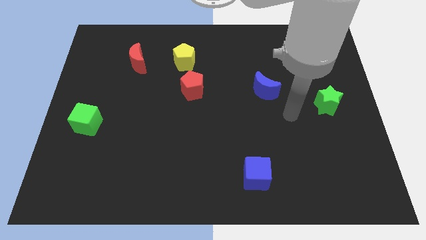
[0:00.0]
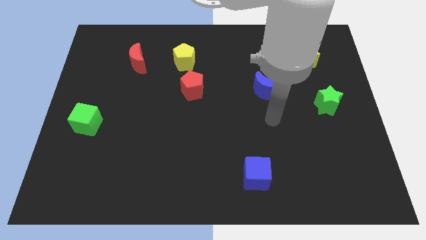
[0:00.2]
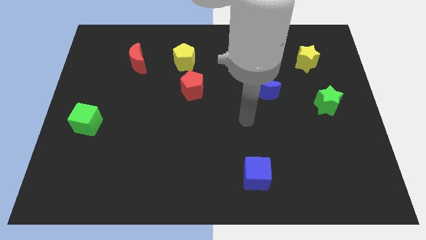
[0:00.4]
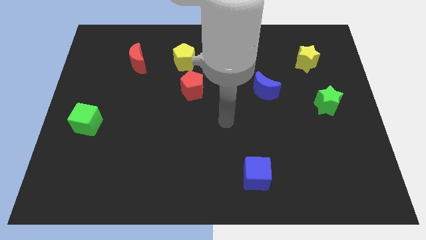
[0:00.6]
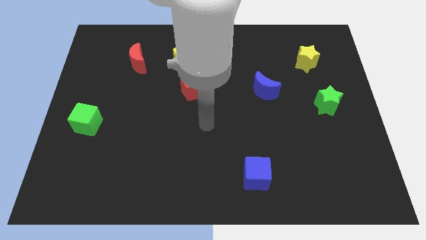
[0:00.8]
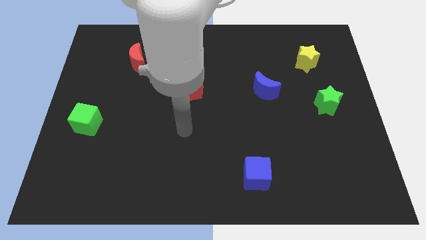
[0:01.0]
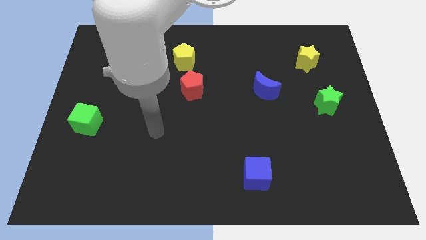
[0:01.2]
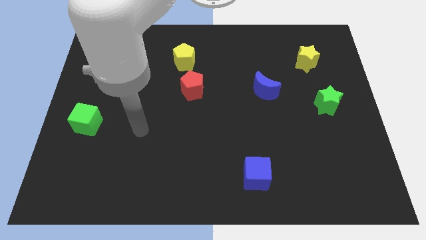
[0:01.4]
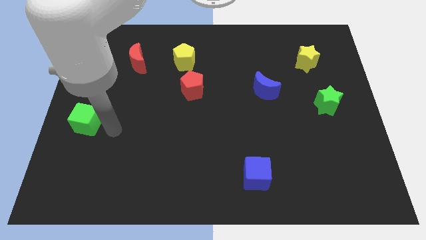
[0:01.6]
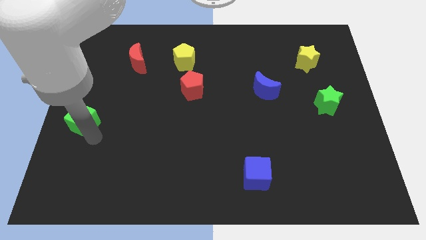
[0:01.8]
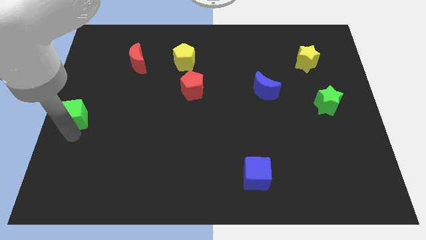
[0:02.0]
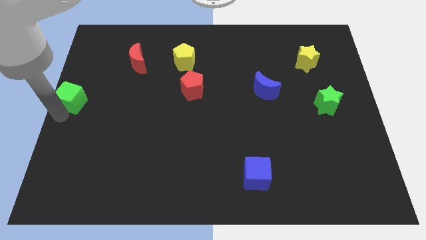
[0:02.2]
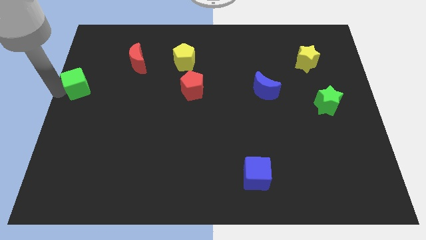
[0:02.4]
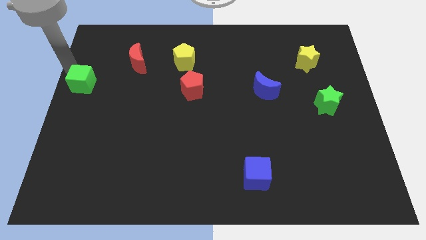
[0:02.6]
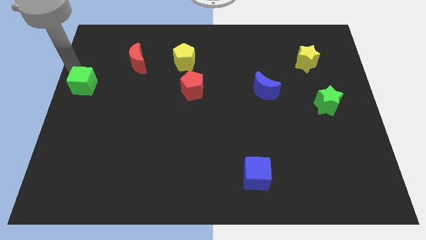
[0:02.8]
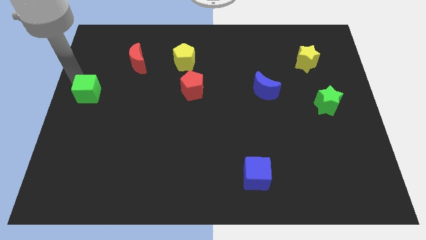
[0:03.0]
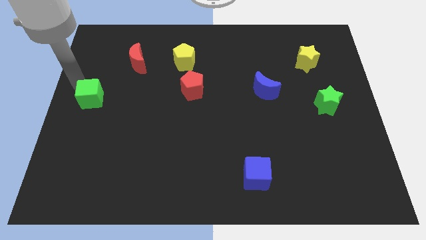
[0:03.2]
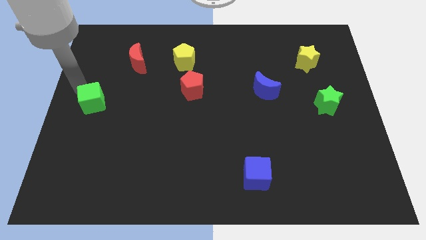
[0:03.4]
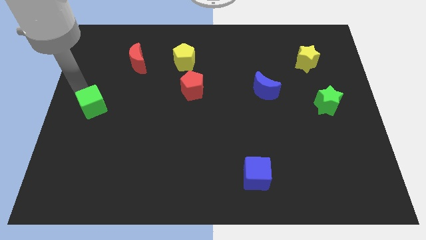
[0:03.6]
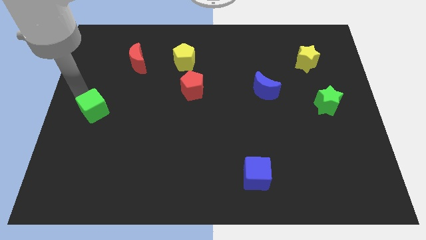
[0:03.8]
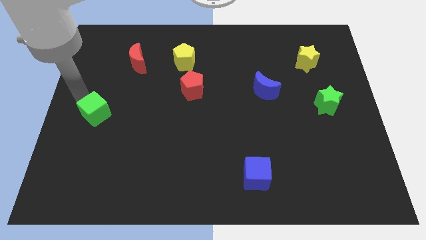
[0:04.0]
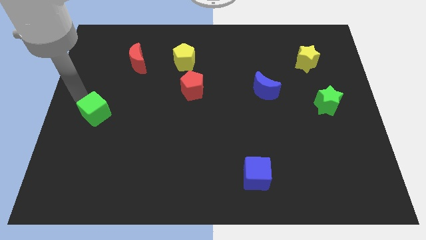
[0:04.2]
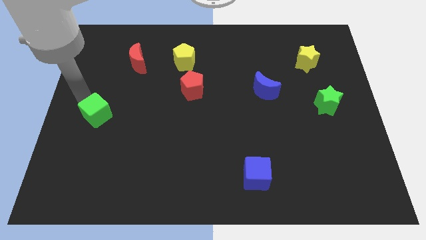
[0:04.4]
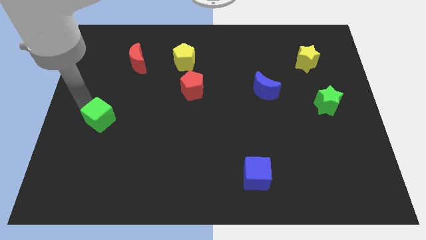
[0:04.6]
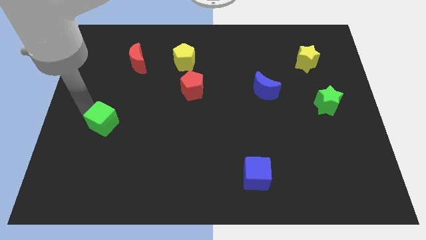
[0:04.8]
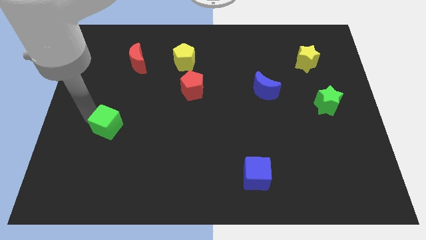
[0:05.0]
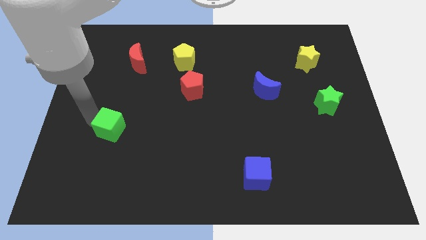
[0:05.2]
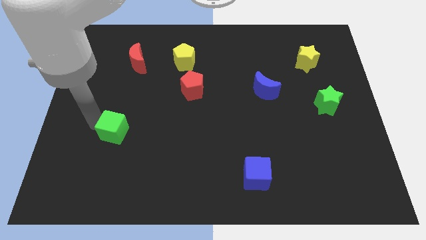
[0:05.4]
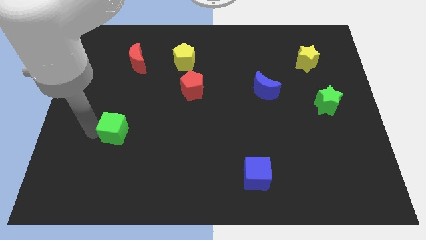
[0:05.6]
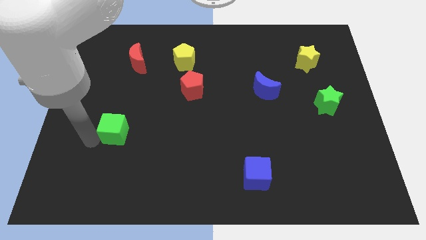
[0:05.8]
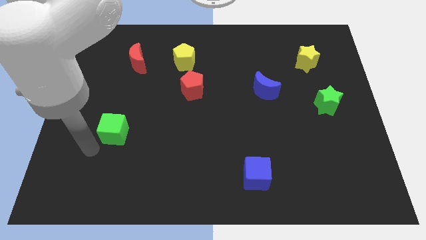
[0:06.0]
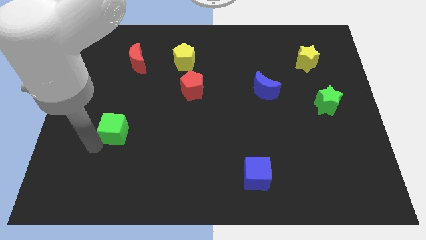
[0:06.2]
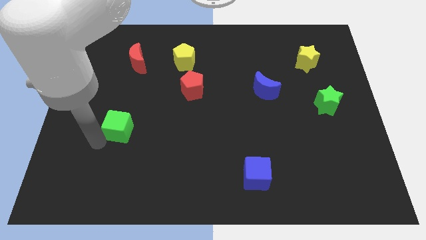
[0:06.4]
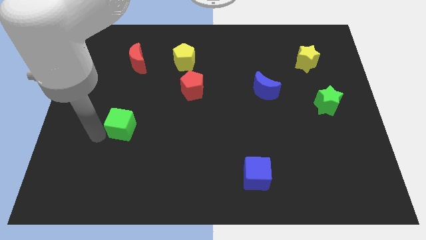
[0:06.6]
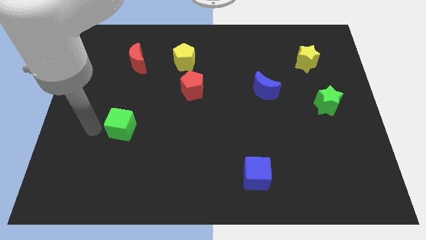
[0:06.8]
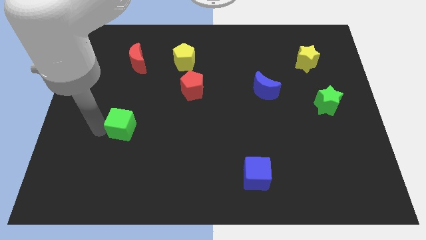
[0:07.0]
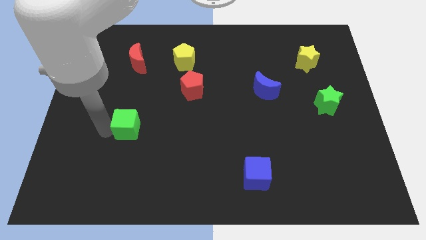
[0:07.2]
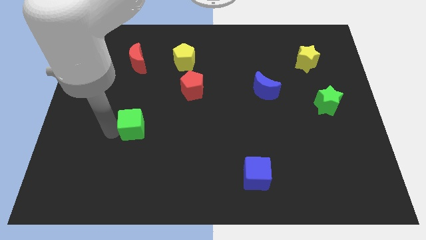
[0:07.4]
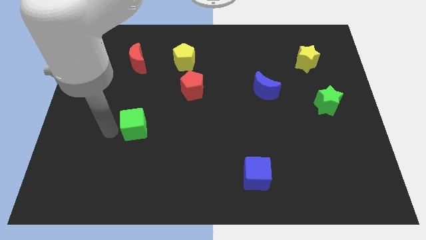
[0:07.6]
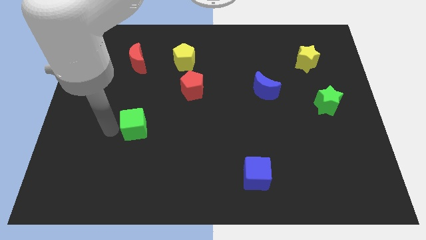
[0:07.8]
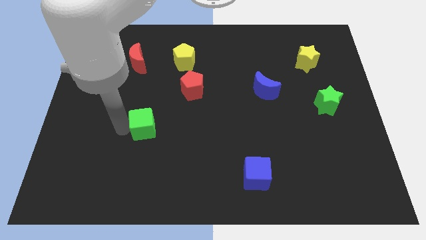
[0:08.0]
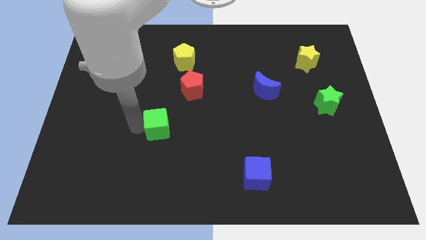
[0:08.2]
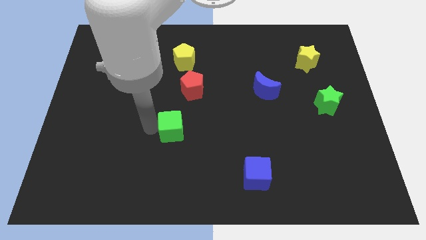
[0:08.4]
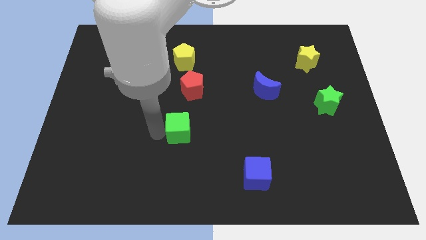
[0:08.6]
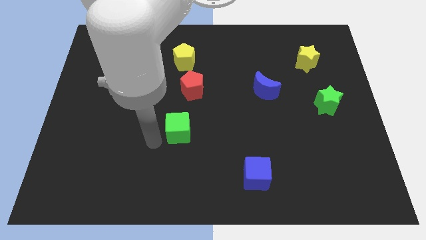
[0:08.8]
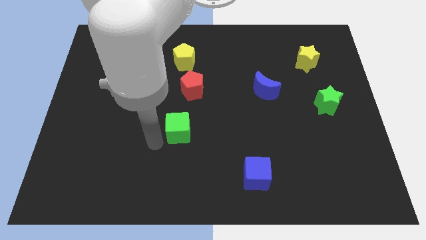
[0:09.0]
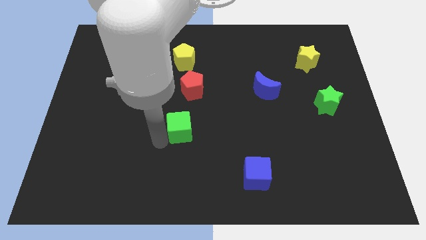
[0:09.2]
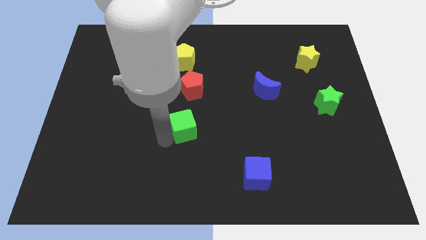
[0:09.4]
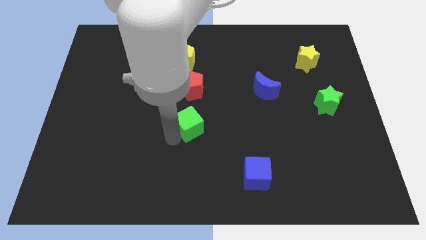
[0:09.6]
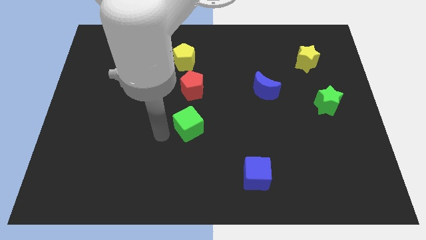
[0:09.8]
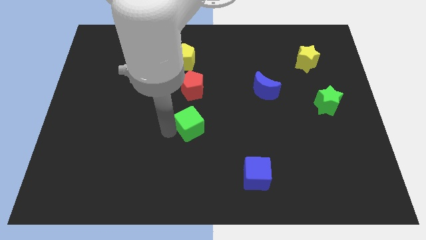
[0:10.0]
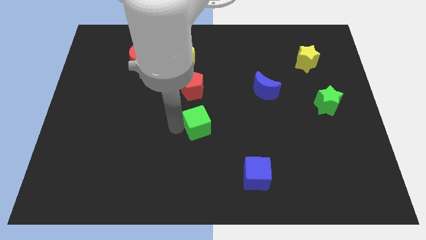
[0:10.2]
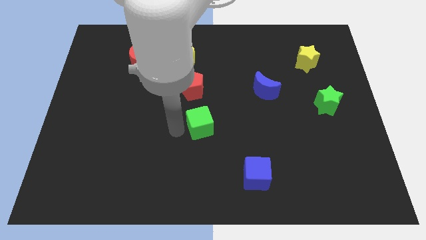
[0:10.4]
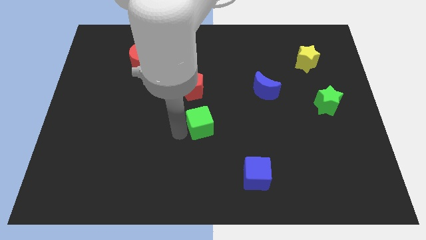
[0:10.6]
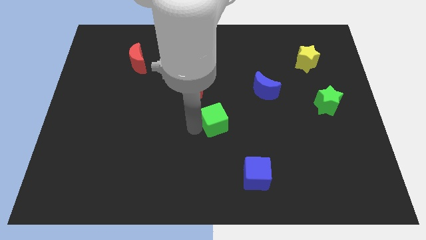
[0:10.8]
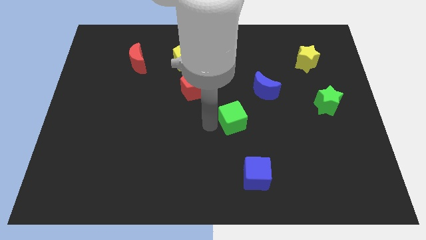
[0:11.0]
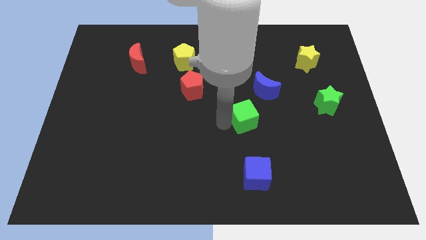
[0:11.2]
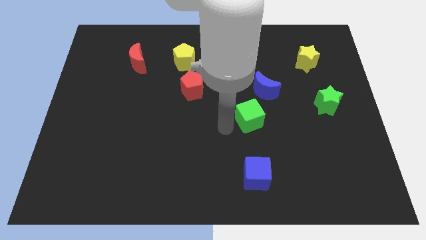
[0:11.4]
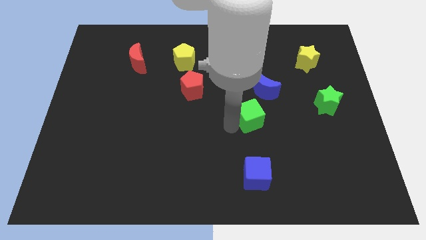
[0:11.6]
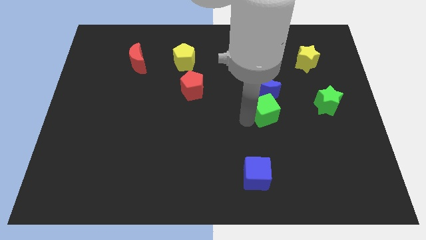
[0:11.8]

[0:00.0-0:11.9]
move the green cube just left of the green star
